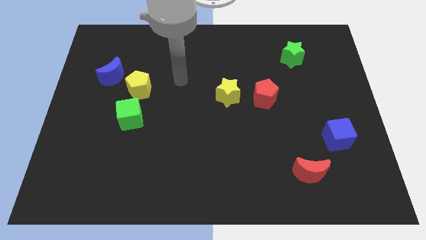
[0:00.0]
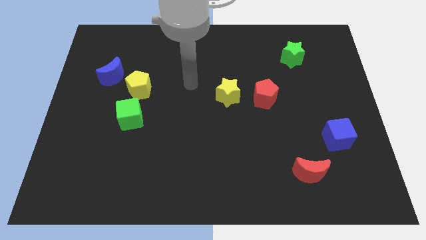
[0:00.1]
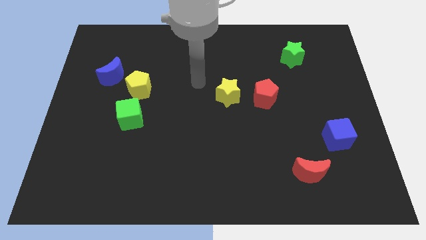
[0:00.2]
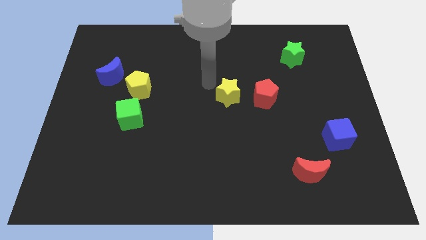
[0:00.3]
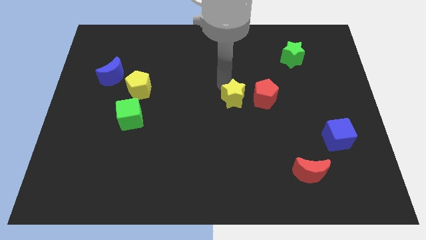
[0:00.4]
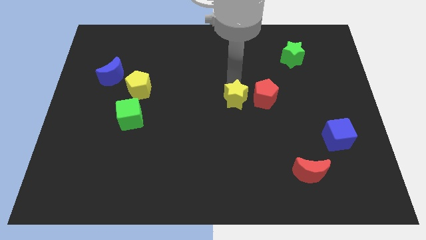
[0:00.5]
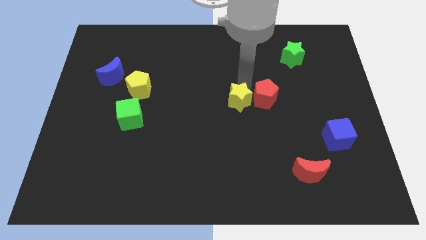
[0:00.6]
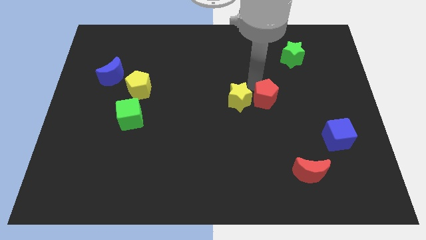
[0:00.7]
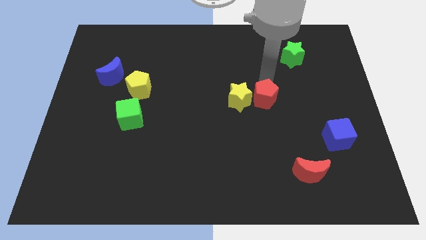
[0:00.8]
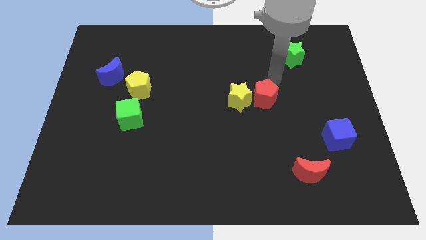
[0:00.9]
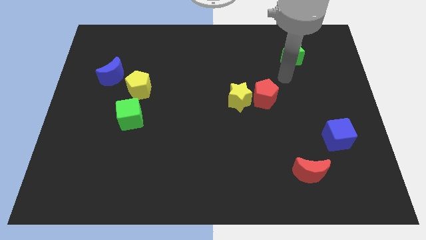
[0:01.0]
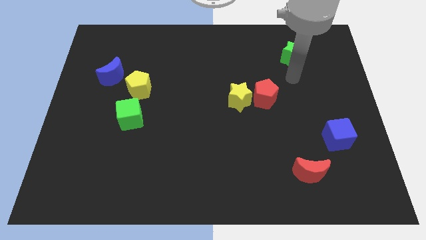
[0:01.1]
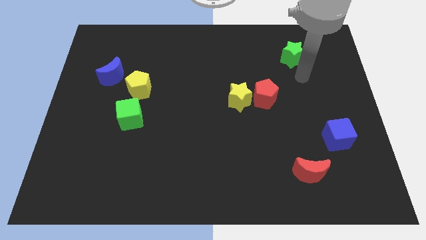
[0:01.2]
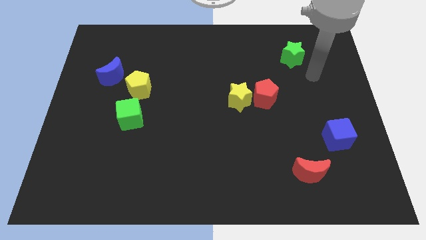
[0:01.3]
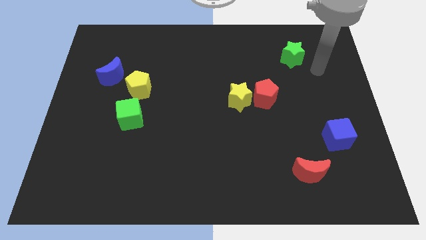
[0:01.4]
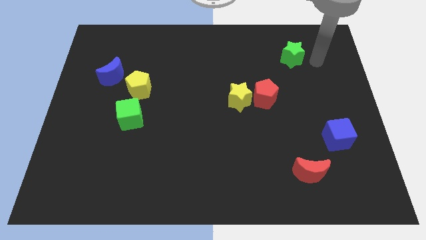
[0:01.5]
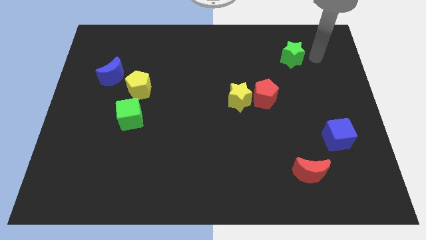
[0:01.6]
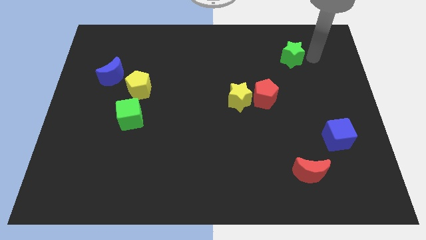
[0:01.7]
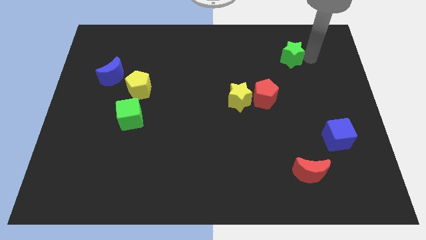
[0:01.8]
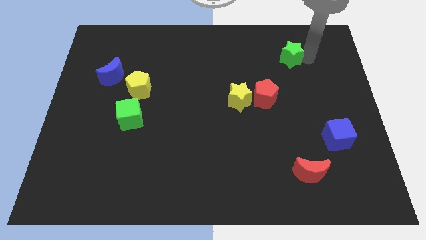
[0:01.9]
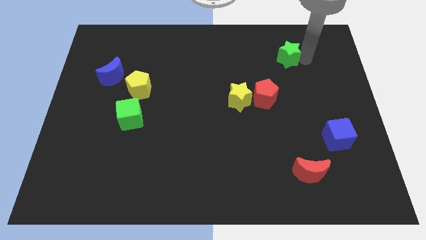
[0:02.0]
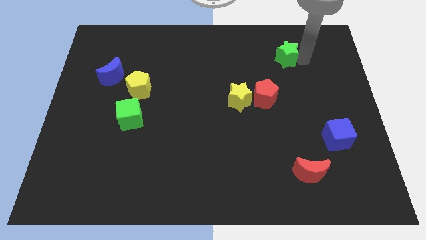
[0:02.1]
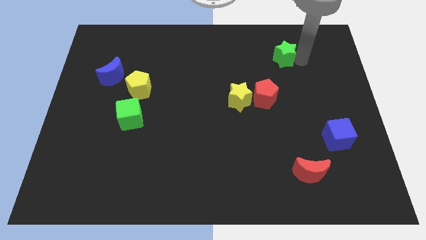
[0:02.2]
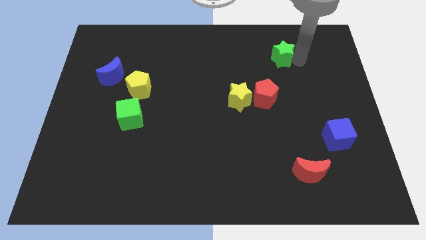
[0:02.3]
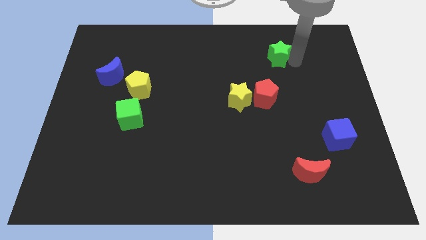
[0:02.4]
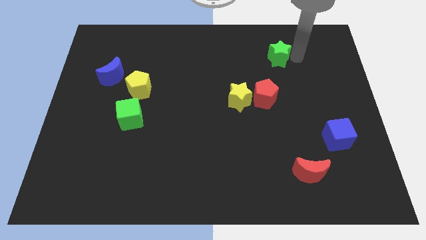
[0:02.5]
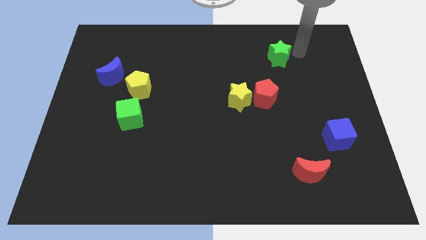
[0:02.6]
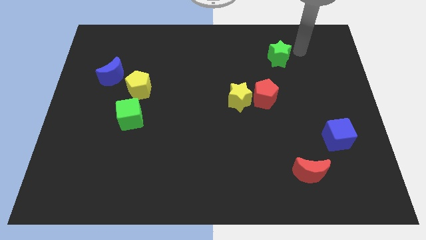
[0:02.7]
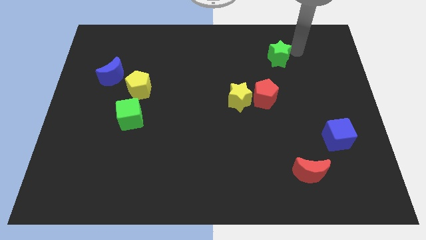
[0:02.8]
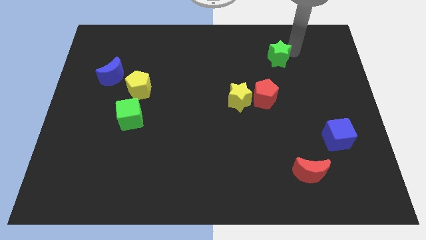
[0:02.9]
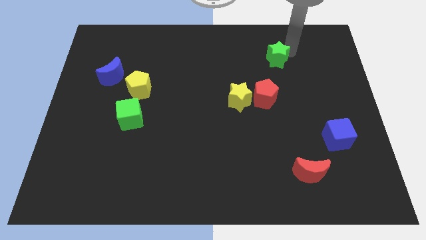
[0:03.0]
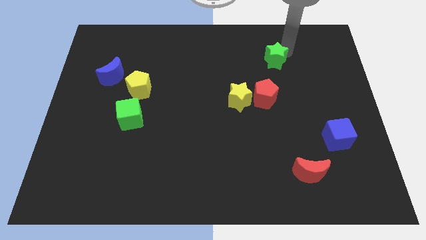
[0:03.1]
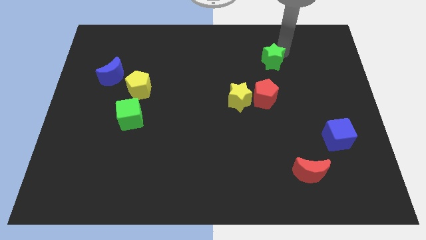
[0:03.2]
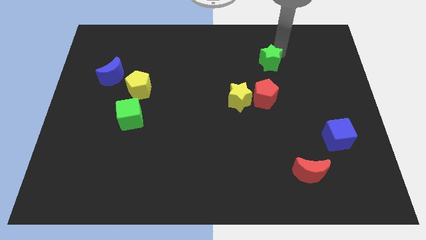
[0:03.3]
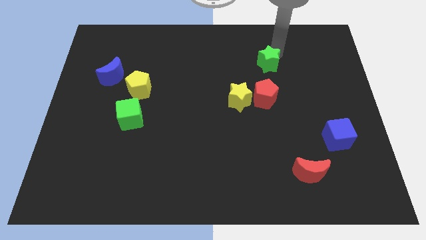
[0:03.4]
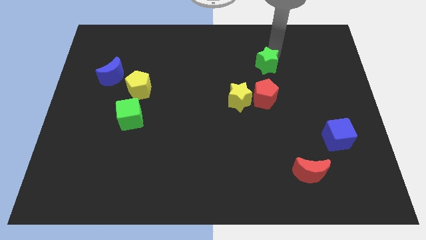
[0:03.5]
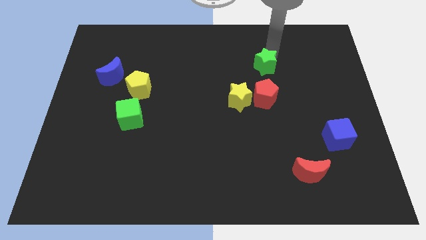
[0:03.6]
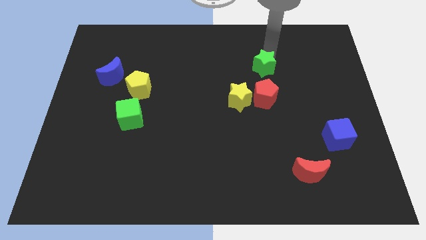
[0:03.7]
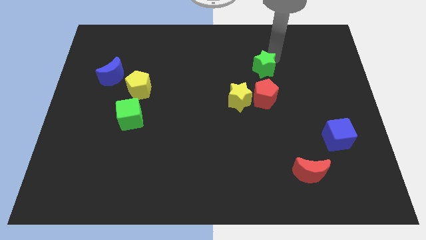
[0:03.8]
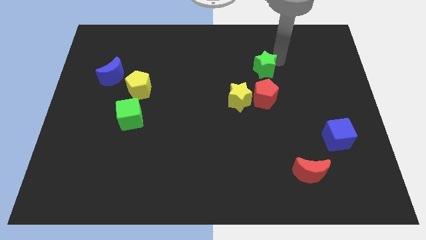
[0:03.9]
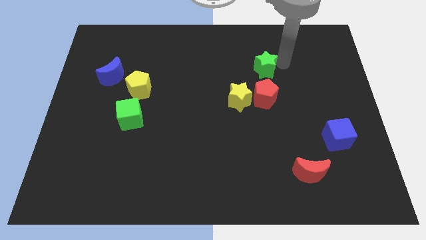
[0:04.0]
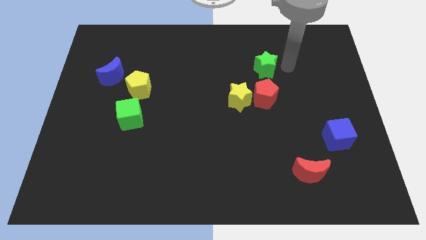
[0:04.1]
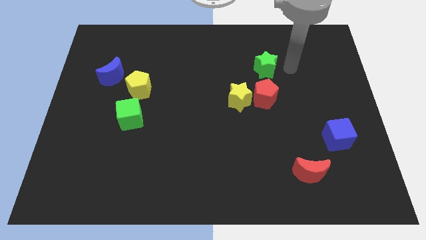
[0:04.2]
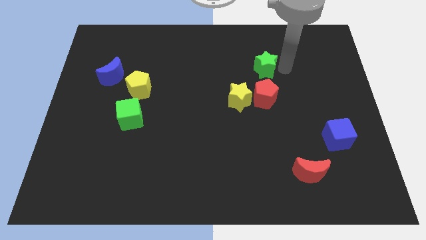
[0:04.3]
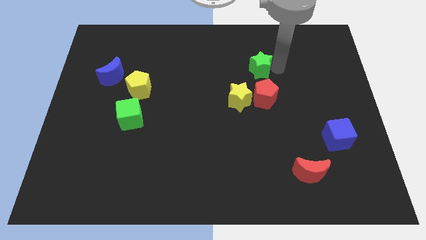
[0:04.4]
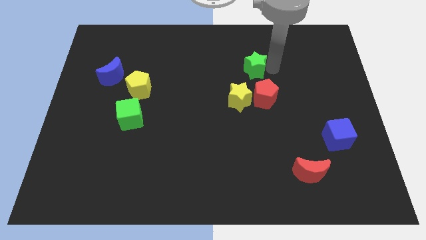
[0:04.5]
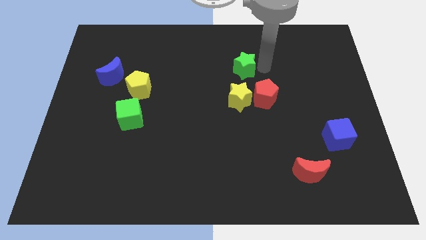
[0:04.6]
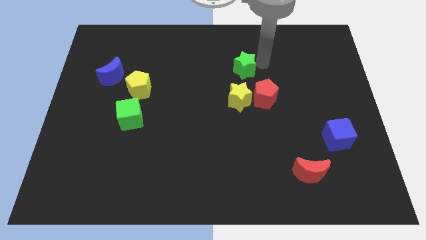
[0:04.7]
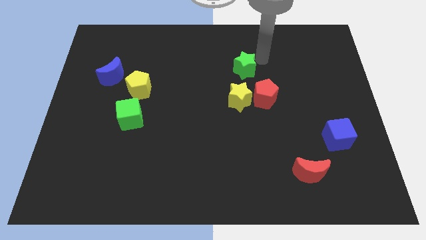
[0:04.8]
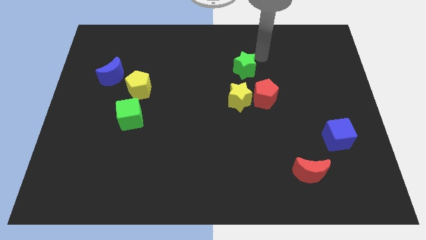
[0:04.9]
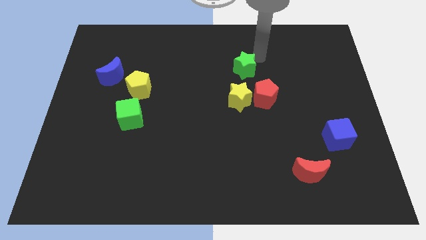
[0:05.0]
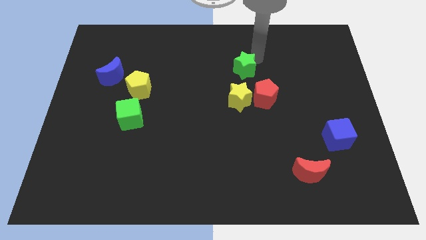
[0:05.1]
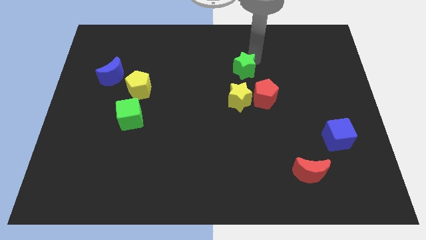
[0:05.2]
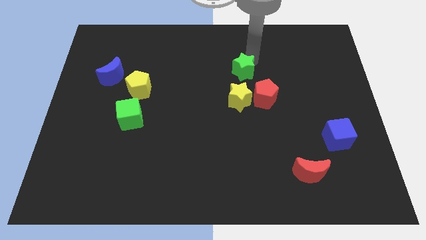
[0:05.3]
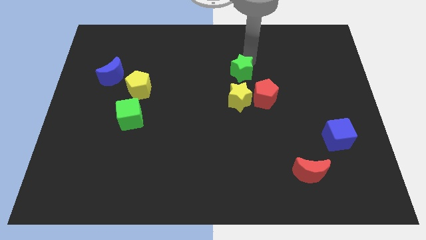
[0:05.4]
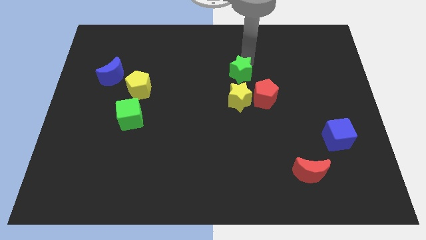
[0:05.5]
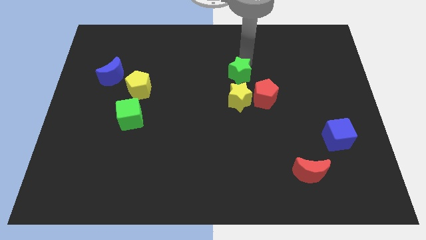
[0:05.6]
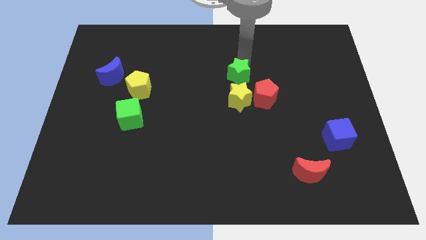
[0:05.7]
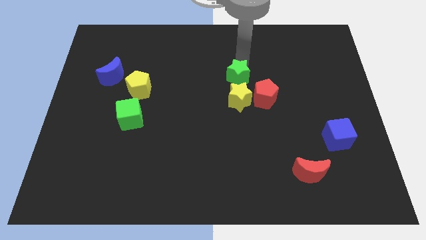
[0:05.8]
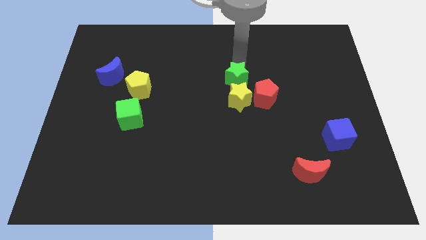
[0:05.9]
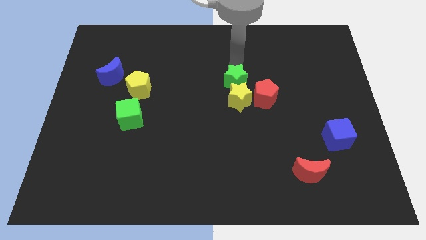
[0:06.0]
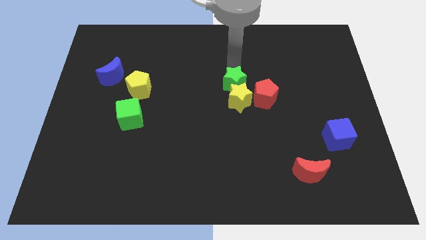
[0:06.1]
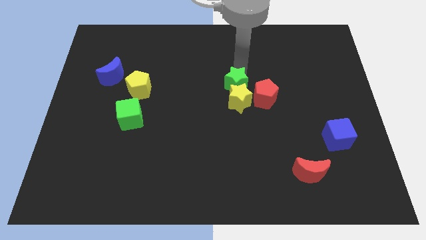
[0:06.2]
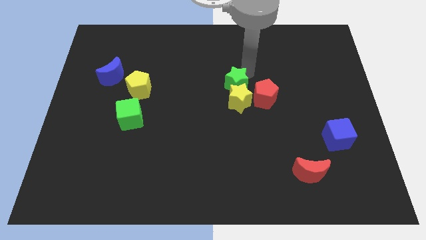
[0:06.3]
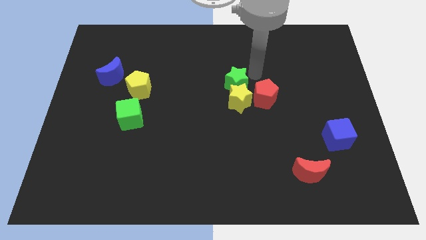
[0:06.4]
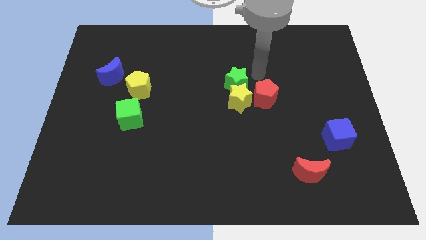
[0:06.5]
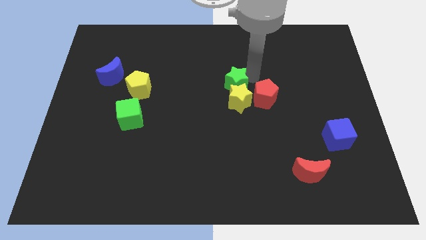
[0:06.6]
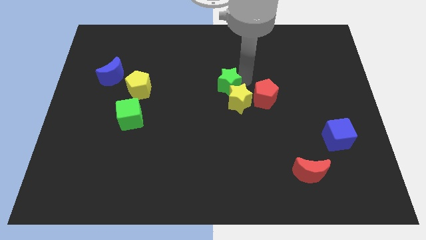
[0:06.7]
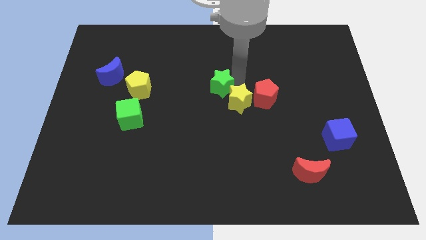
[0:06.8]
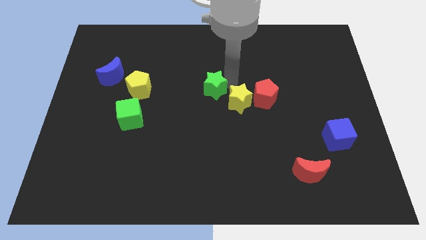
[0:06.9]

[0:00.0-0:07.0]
push the green star diagonally downwards and to the left

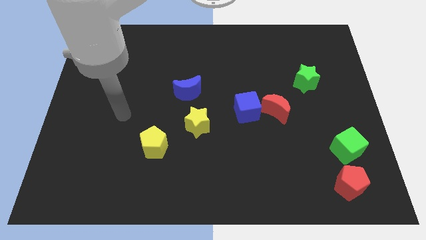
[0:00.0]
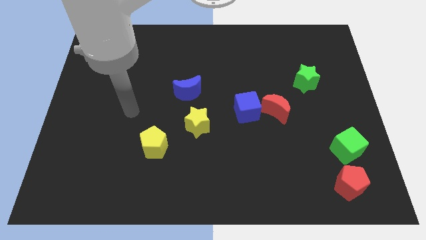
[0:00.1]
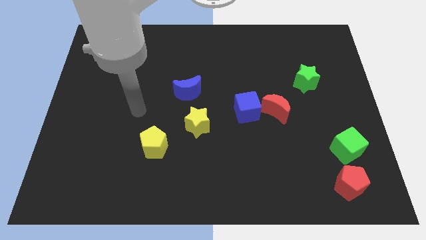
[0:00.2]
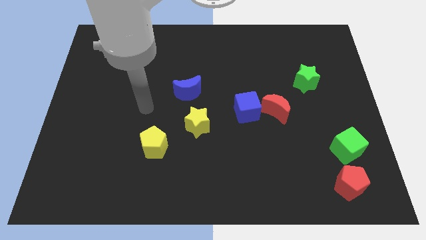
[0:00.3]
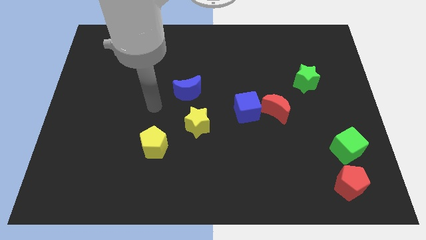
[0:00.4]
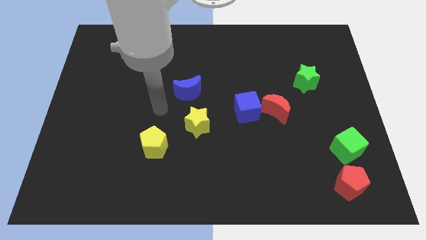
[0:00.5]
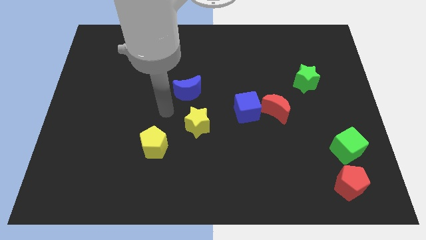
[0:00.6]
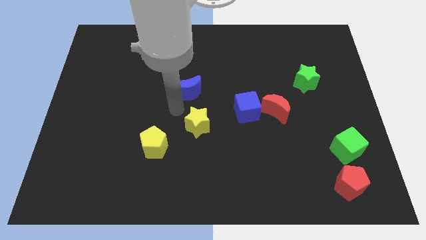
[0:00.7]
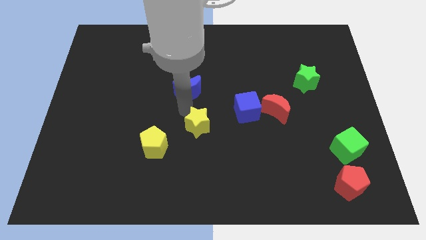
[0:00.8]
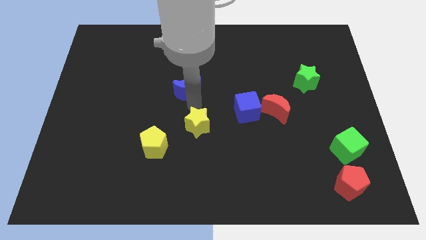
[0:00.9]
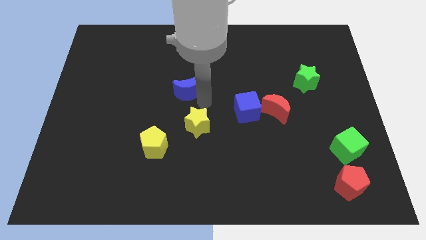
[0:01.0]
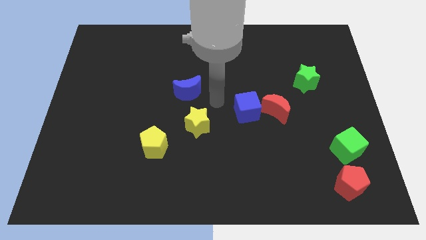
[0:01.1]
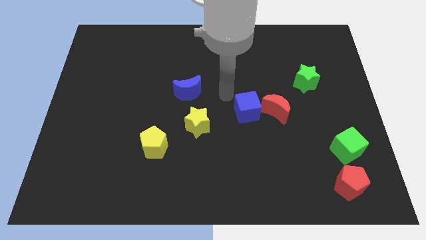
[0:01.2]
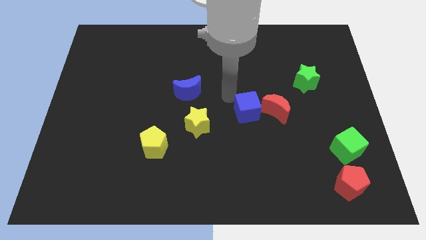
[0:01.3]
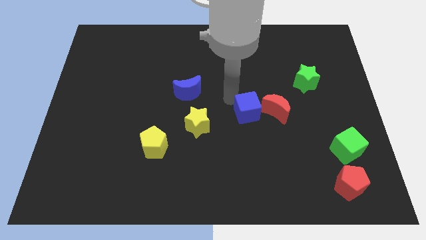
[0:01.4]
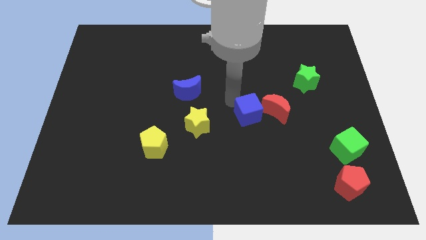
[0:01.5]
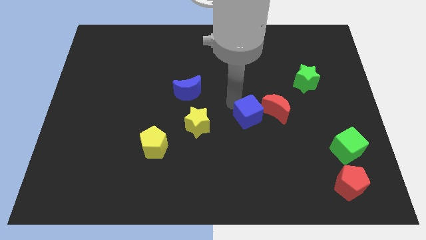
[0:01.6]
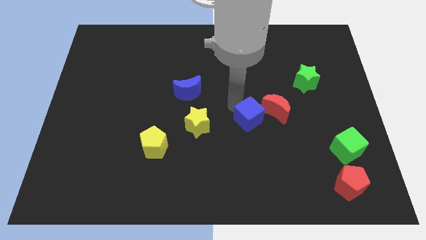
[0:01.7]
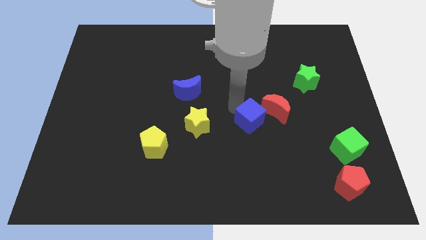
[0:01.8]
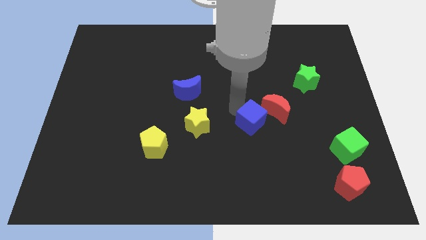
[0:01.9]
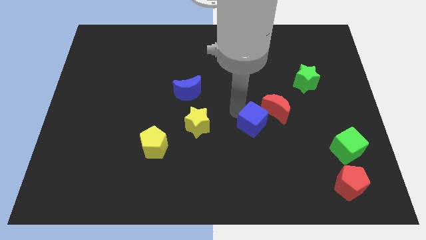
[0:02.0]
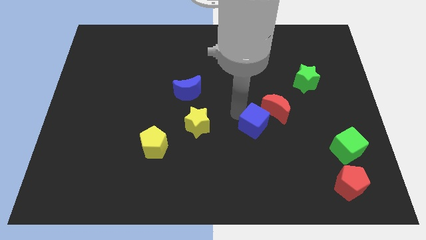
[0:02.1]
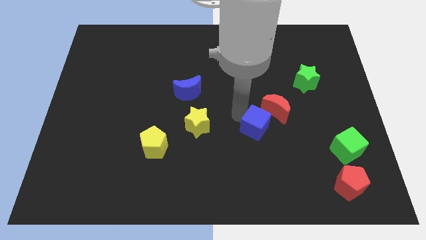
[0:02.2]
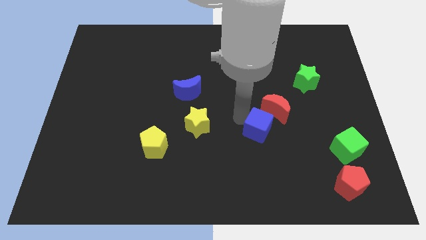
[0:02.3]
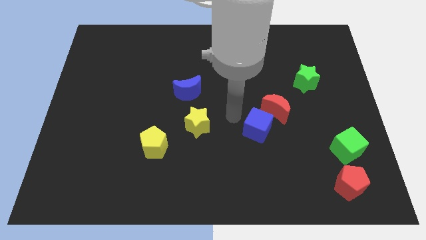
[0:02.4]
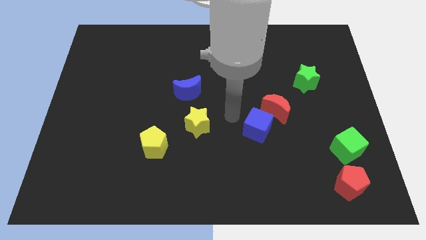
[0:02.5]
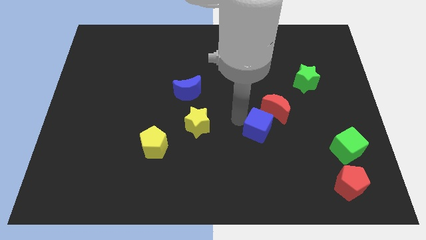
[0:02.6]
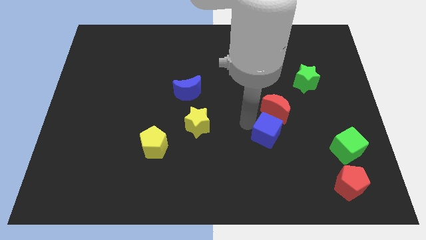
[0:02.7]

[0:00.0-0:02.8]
push the blue cube downwards and then right slightly
